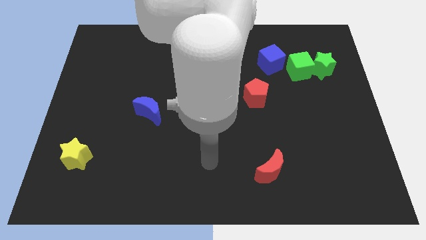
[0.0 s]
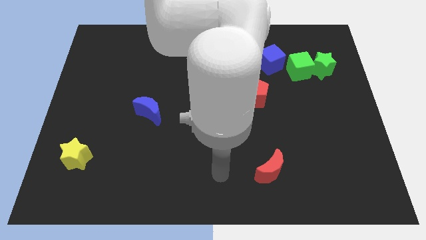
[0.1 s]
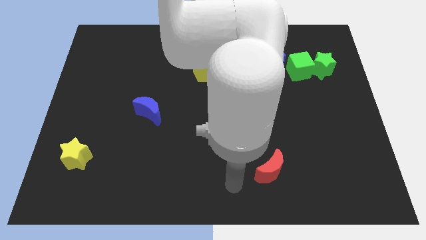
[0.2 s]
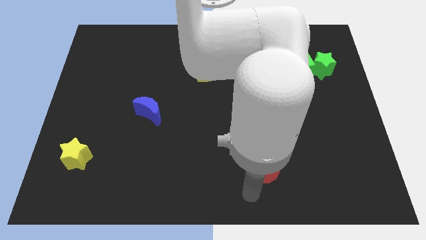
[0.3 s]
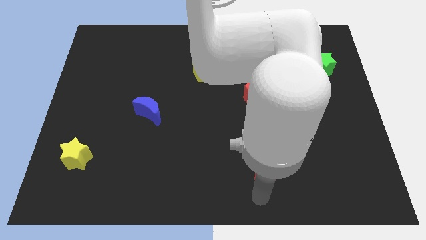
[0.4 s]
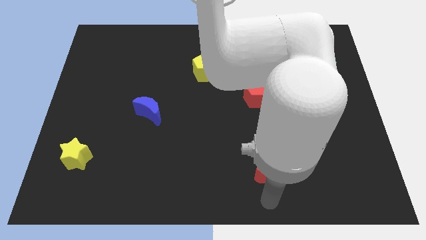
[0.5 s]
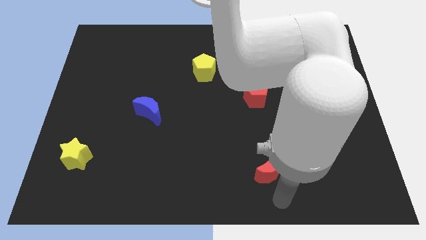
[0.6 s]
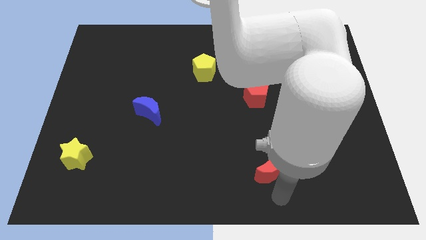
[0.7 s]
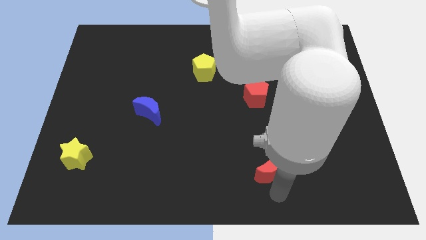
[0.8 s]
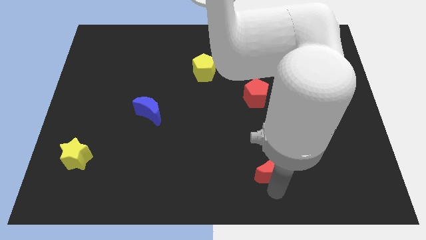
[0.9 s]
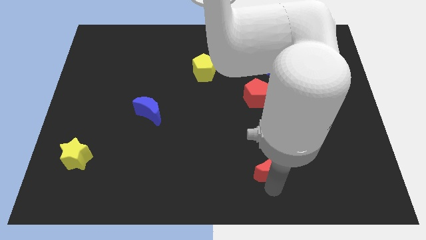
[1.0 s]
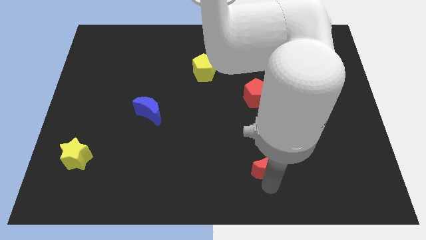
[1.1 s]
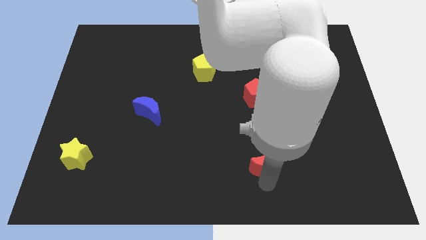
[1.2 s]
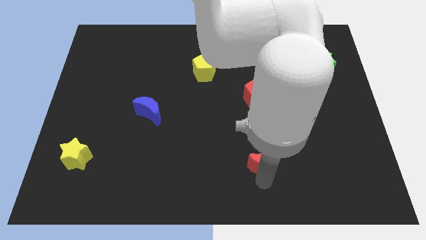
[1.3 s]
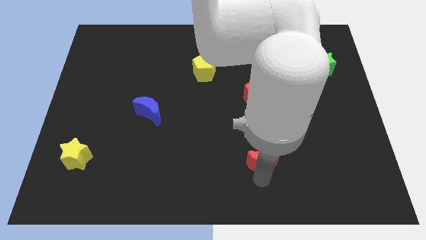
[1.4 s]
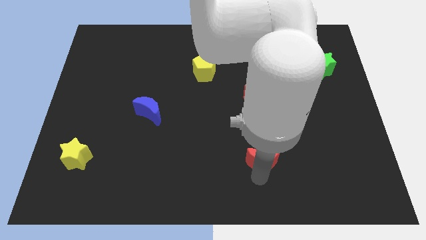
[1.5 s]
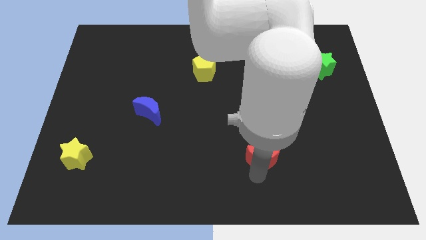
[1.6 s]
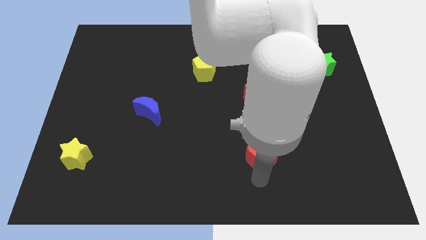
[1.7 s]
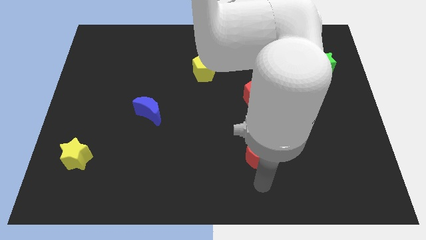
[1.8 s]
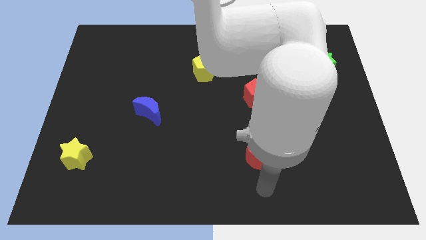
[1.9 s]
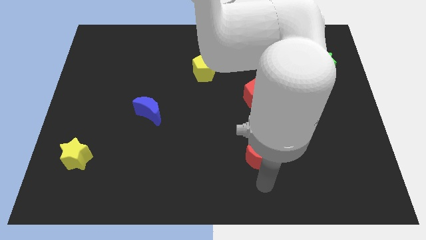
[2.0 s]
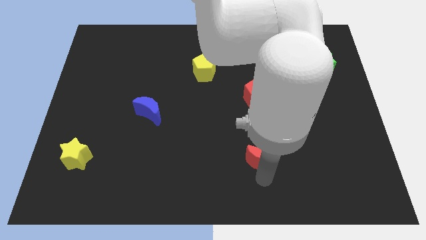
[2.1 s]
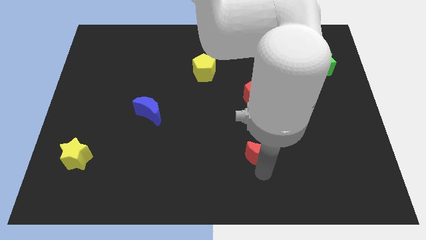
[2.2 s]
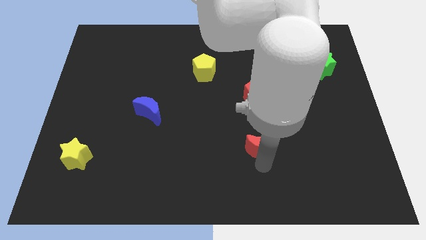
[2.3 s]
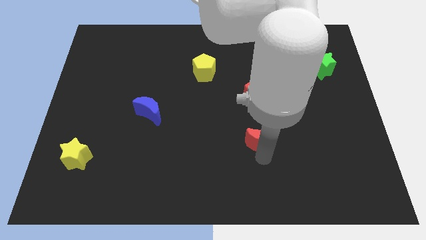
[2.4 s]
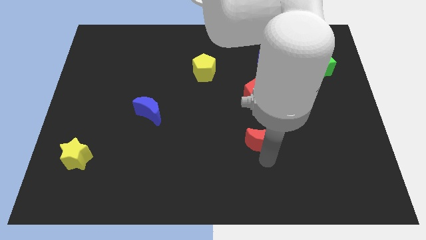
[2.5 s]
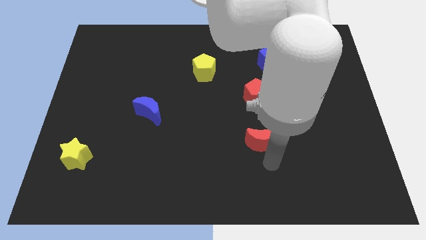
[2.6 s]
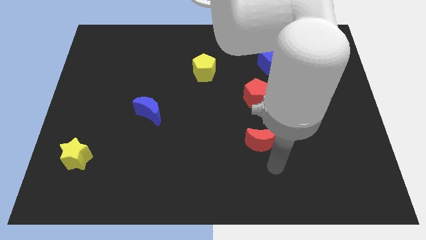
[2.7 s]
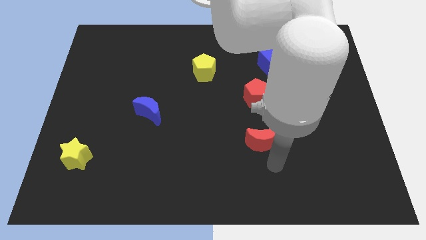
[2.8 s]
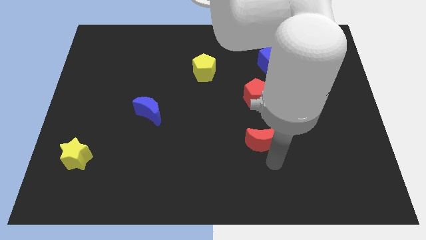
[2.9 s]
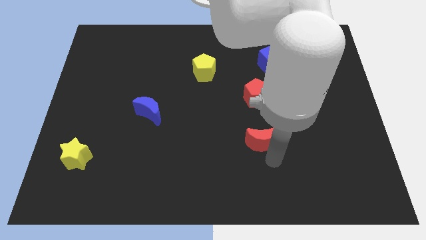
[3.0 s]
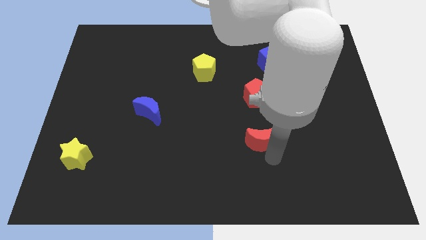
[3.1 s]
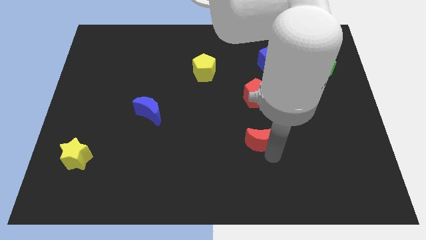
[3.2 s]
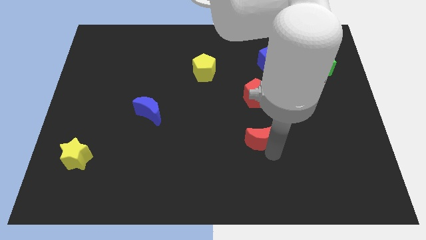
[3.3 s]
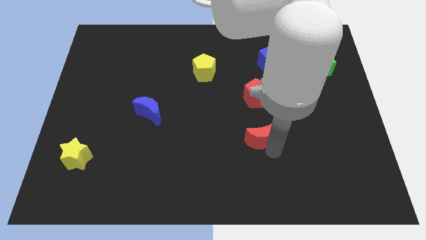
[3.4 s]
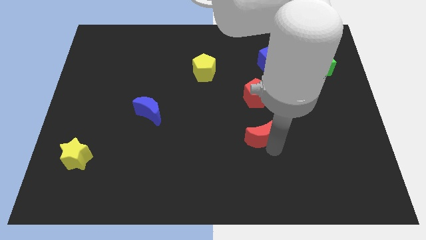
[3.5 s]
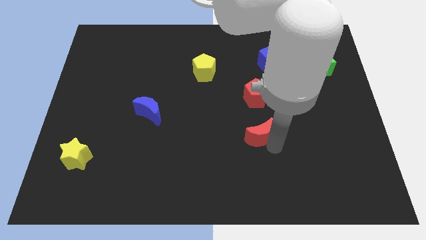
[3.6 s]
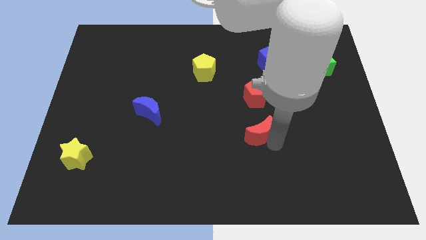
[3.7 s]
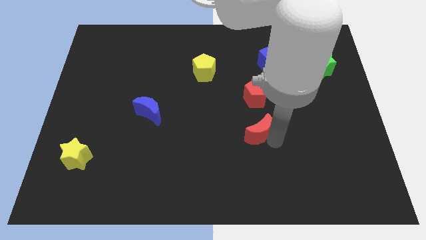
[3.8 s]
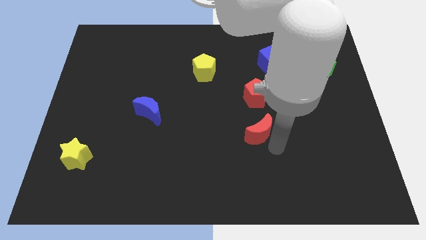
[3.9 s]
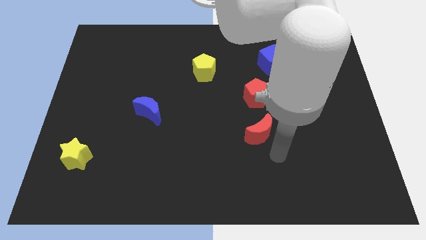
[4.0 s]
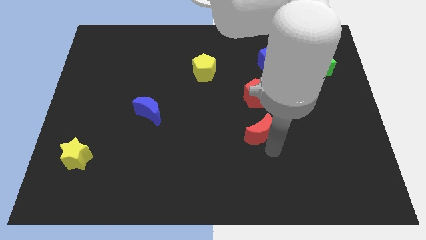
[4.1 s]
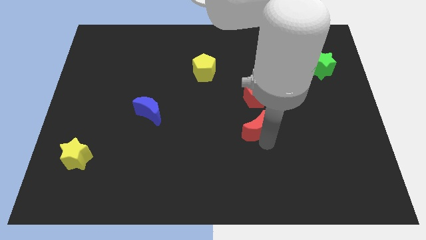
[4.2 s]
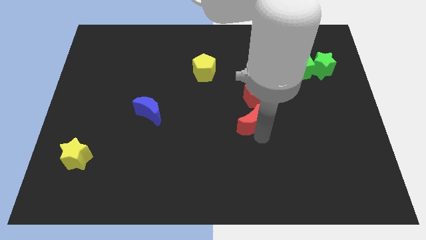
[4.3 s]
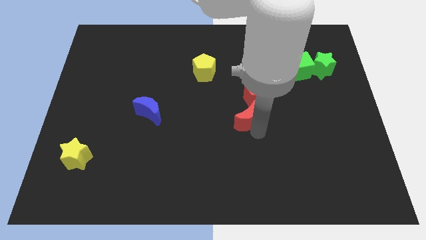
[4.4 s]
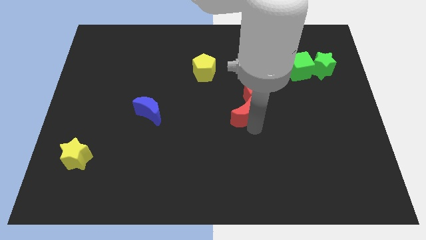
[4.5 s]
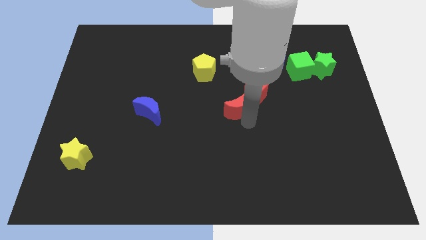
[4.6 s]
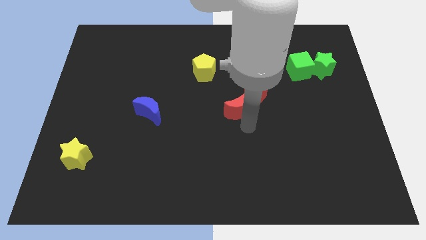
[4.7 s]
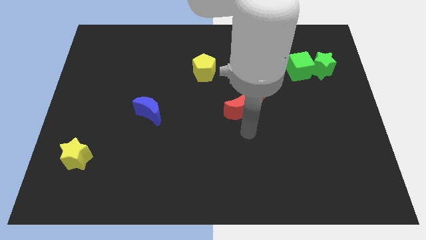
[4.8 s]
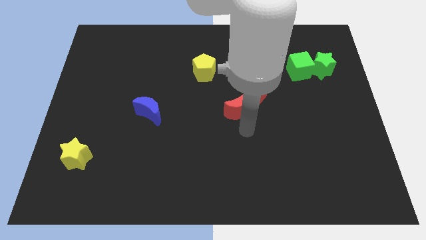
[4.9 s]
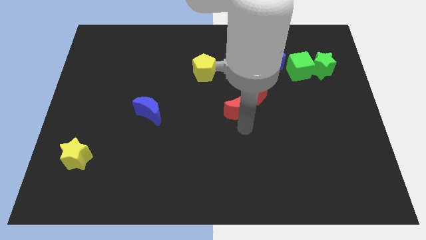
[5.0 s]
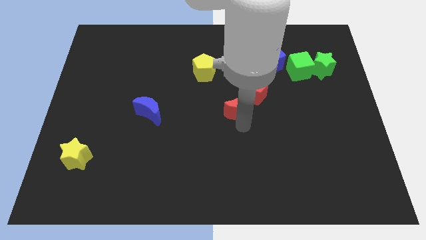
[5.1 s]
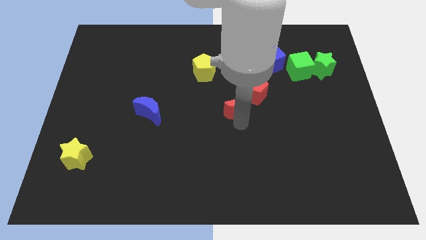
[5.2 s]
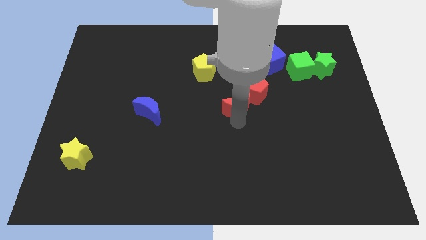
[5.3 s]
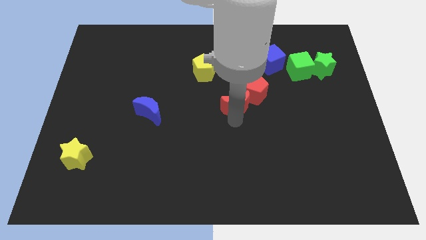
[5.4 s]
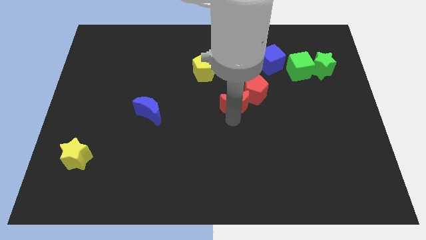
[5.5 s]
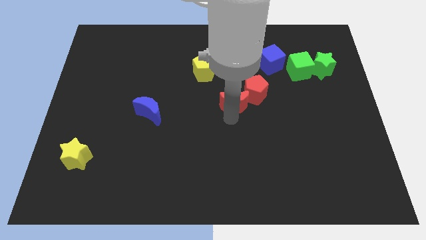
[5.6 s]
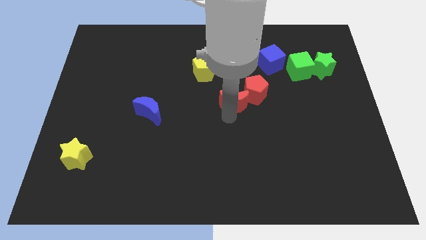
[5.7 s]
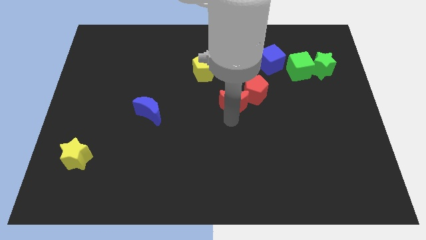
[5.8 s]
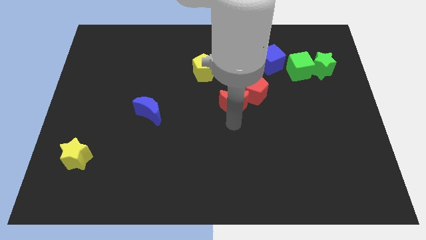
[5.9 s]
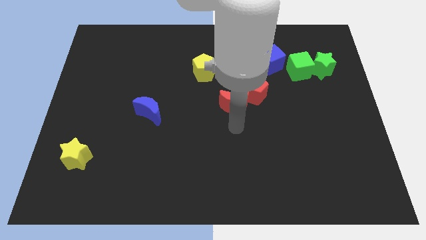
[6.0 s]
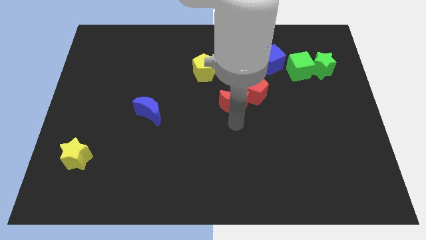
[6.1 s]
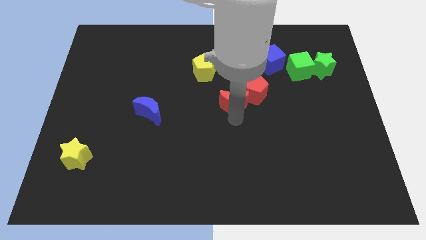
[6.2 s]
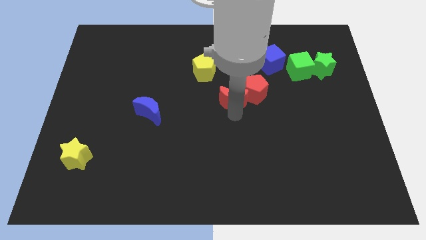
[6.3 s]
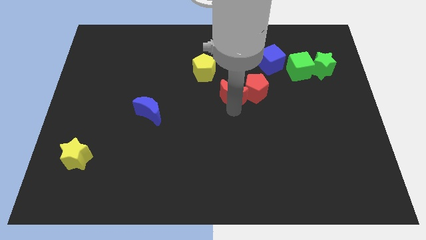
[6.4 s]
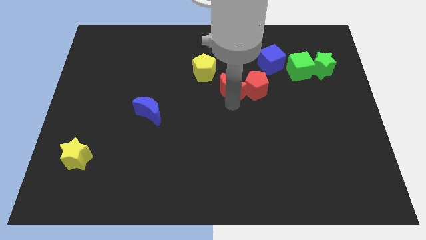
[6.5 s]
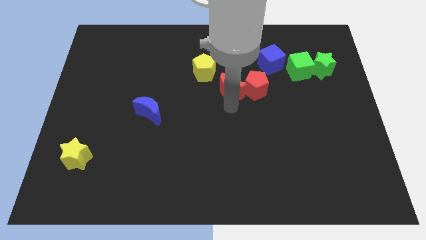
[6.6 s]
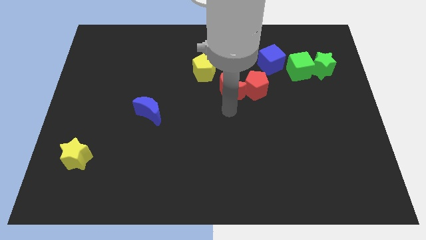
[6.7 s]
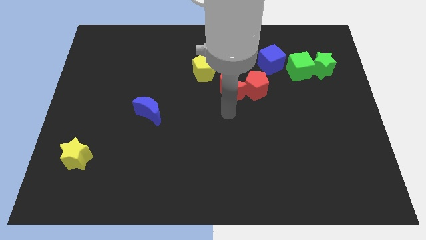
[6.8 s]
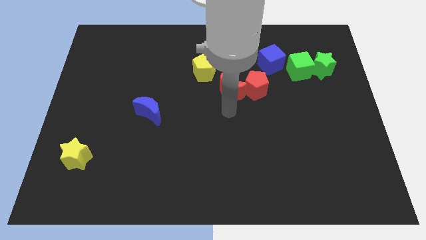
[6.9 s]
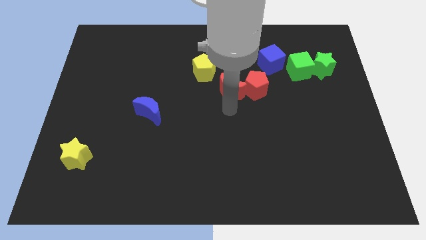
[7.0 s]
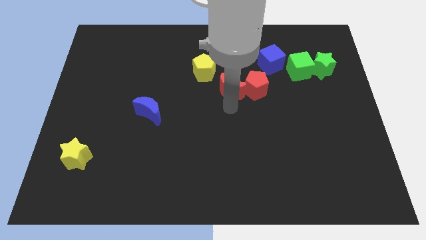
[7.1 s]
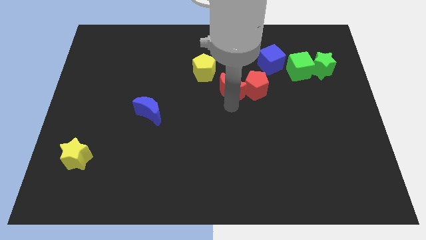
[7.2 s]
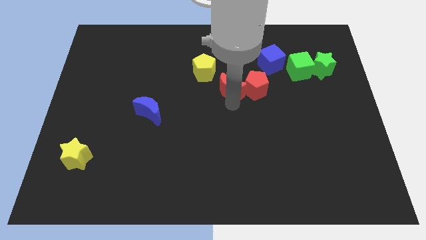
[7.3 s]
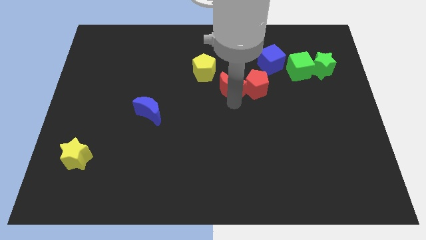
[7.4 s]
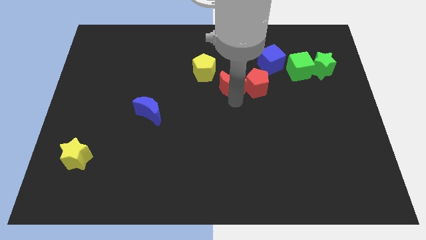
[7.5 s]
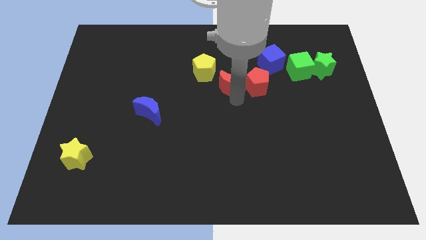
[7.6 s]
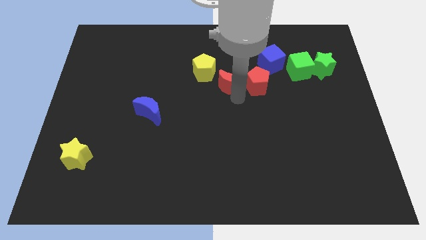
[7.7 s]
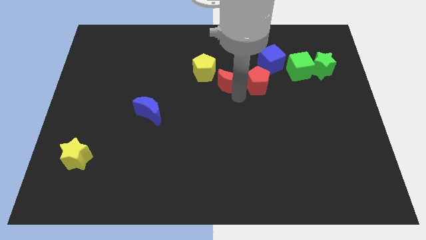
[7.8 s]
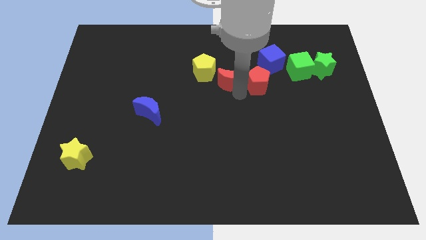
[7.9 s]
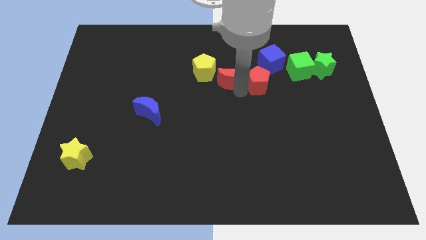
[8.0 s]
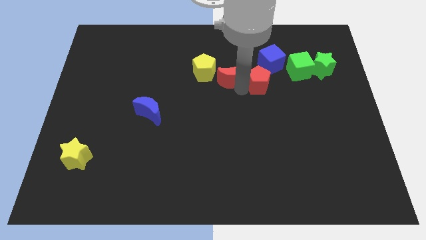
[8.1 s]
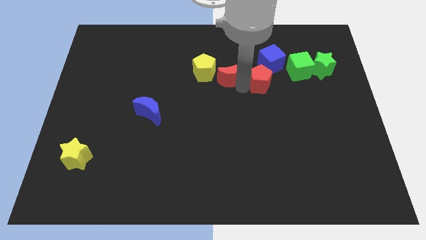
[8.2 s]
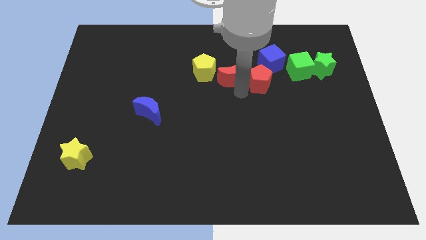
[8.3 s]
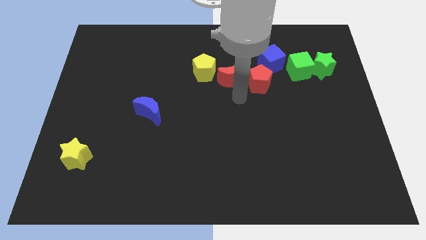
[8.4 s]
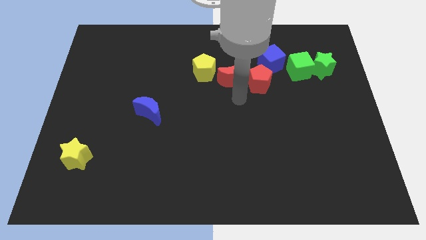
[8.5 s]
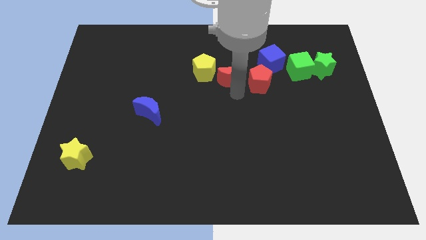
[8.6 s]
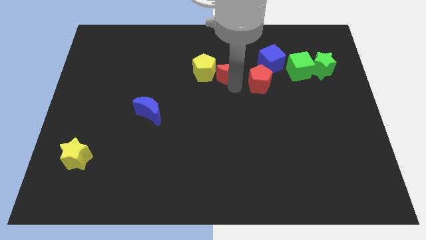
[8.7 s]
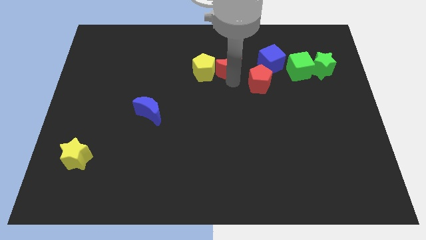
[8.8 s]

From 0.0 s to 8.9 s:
move the red moon to the top right side of the yellow pentagon
